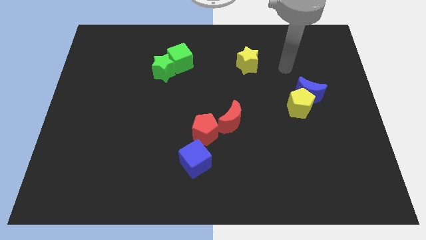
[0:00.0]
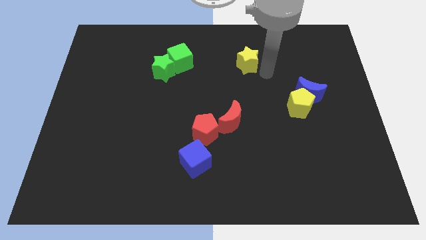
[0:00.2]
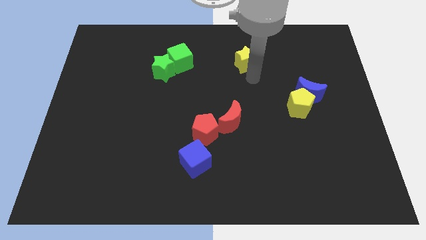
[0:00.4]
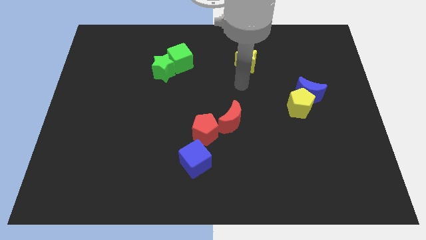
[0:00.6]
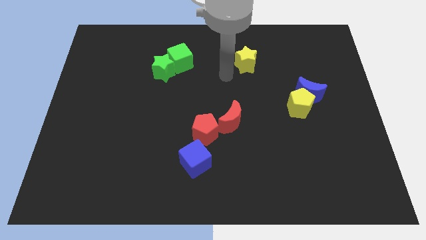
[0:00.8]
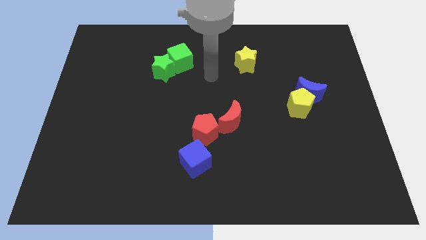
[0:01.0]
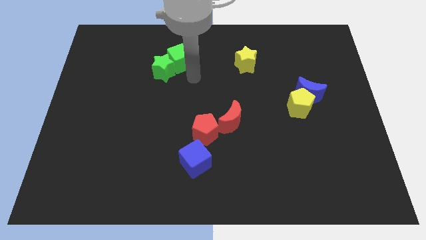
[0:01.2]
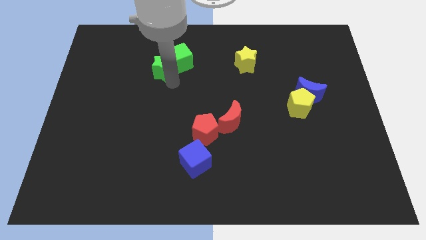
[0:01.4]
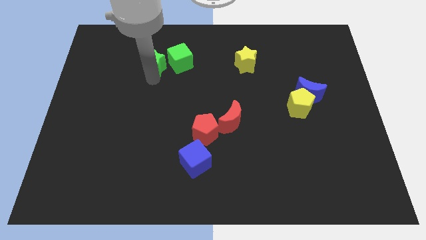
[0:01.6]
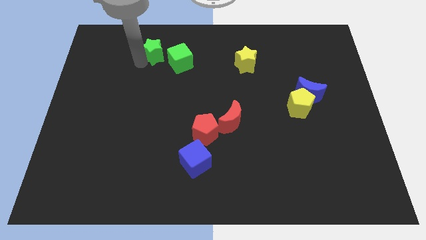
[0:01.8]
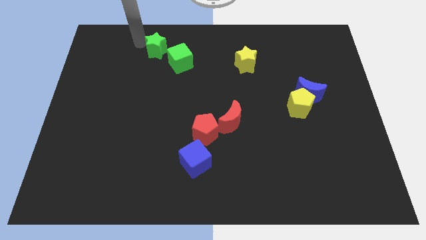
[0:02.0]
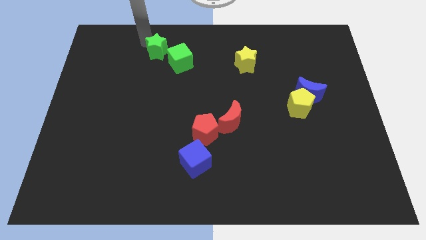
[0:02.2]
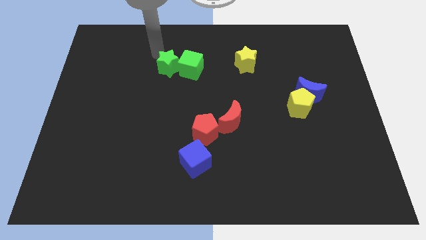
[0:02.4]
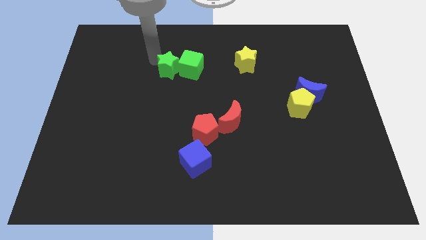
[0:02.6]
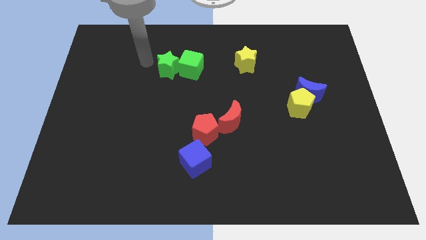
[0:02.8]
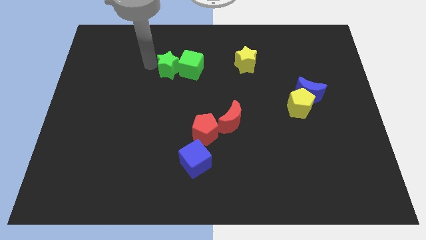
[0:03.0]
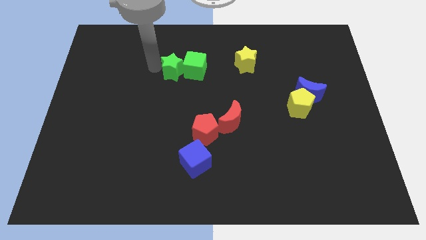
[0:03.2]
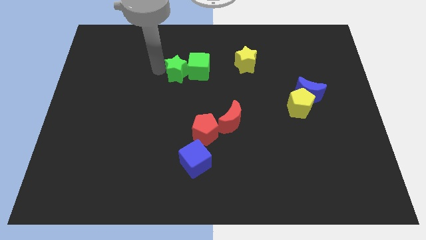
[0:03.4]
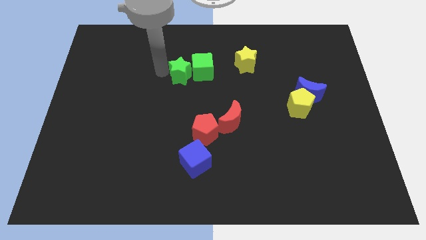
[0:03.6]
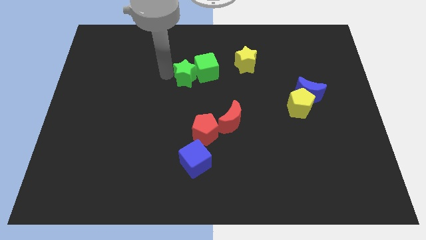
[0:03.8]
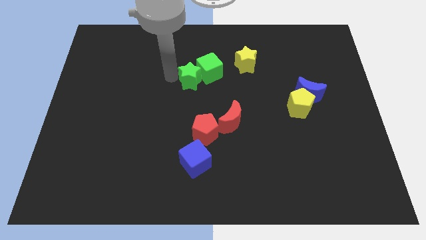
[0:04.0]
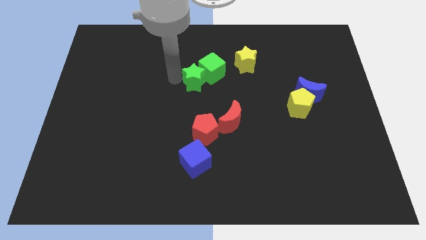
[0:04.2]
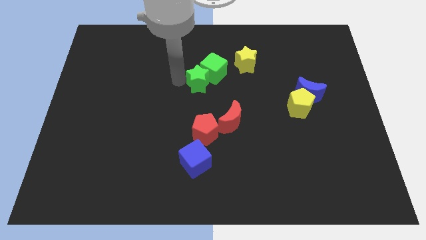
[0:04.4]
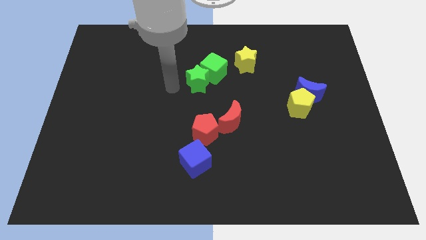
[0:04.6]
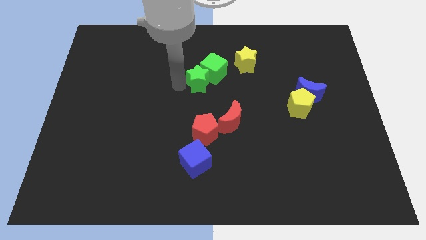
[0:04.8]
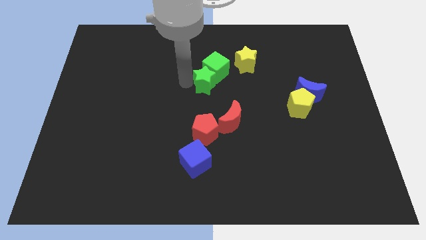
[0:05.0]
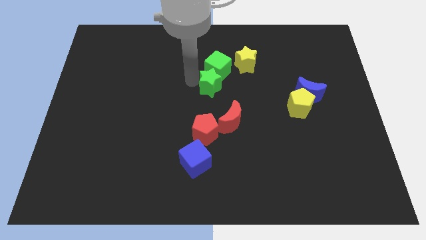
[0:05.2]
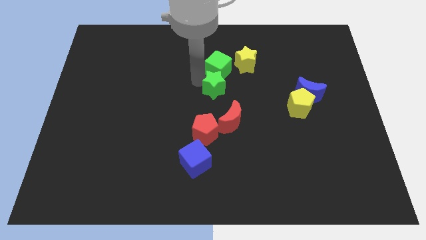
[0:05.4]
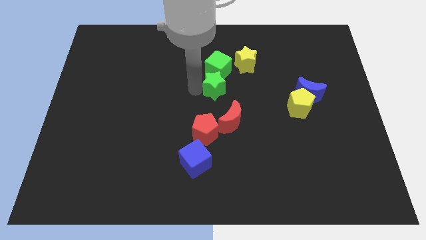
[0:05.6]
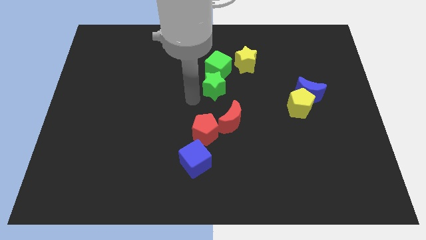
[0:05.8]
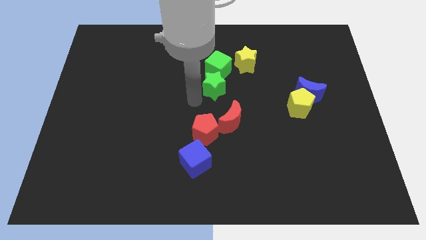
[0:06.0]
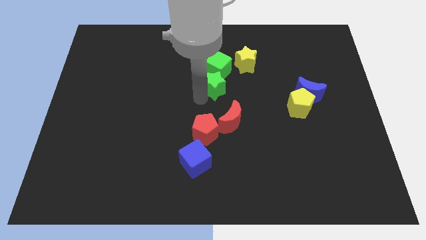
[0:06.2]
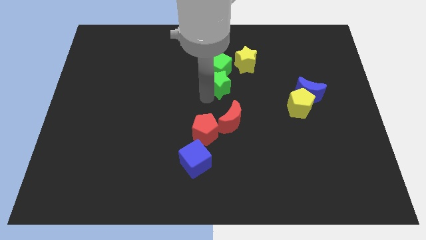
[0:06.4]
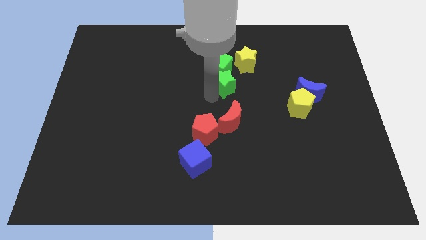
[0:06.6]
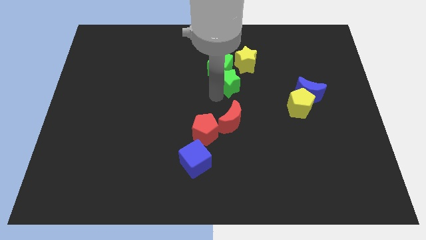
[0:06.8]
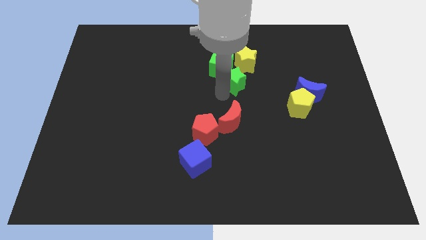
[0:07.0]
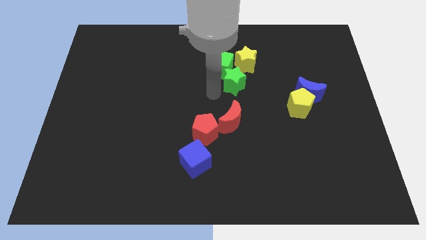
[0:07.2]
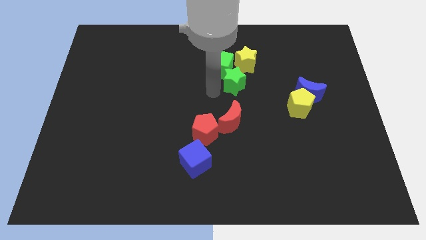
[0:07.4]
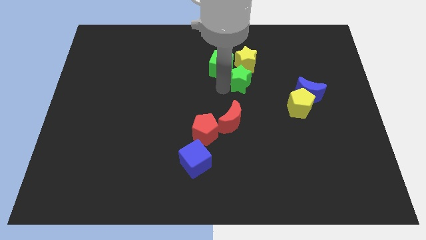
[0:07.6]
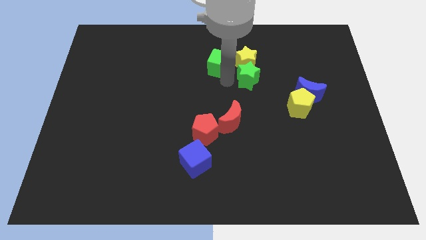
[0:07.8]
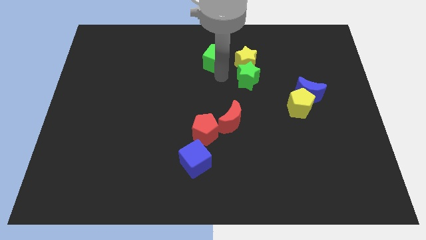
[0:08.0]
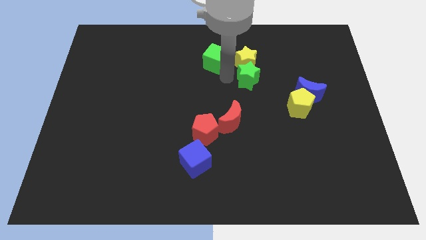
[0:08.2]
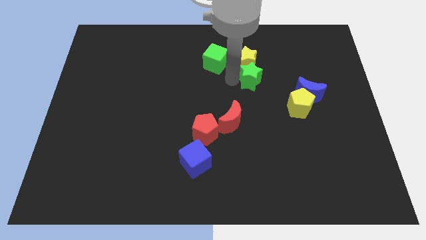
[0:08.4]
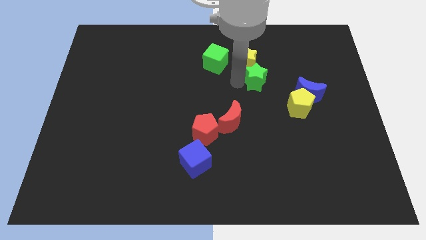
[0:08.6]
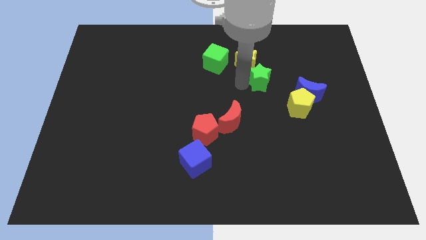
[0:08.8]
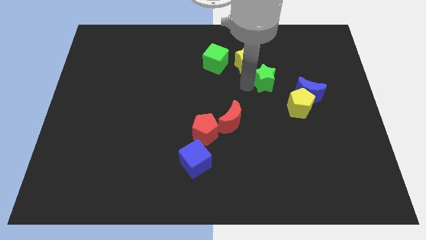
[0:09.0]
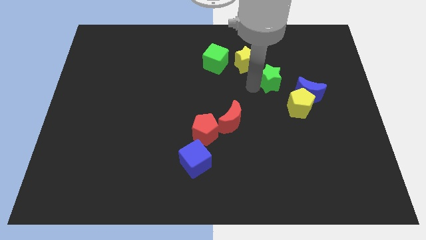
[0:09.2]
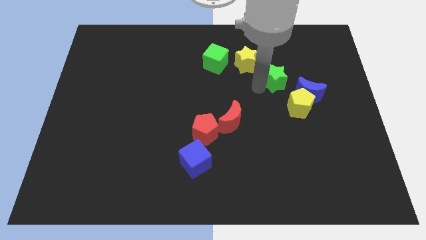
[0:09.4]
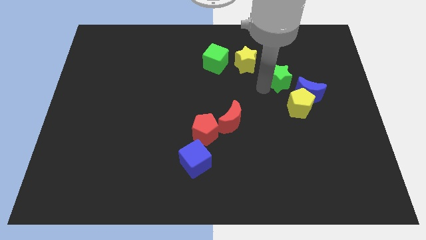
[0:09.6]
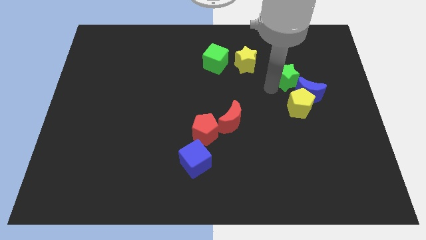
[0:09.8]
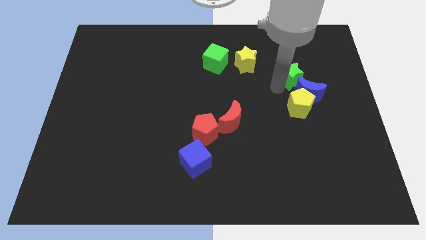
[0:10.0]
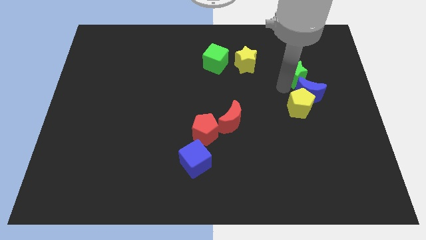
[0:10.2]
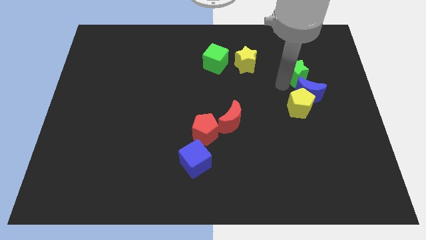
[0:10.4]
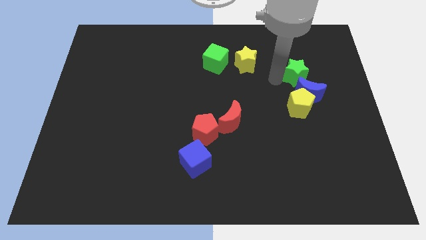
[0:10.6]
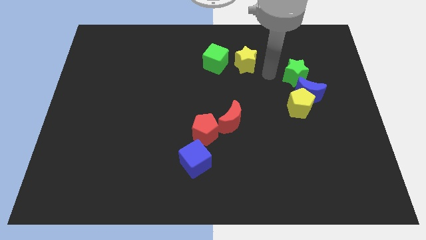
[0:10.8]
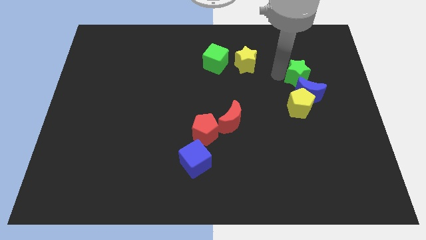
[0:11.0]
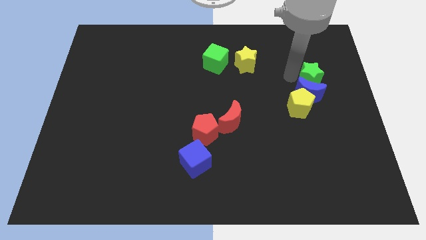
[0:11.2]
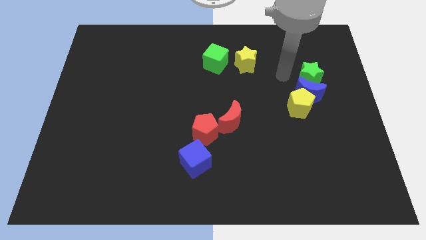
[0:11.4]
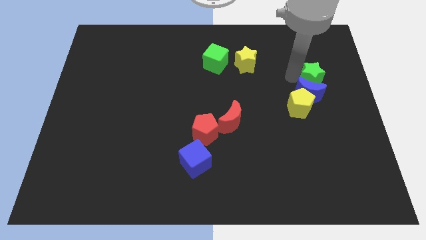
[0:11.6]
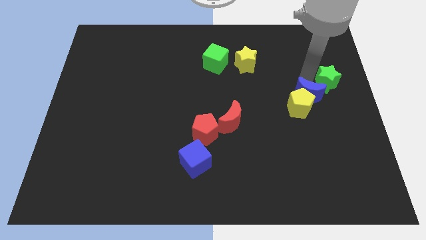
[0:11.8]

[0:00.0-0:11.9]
slide the green star to the right side

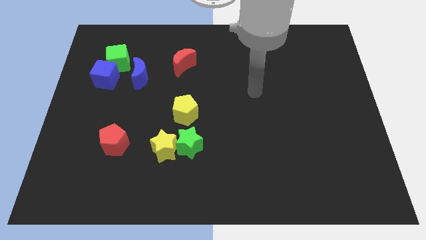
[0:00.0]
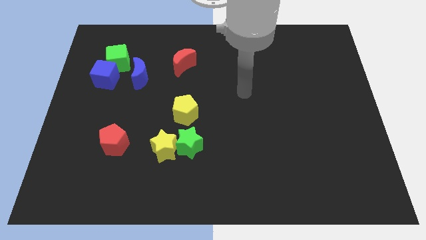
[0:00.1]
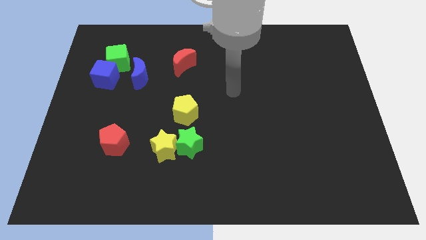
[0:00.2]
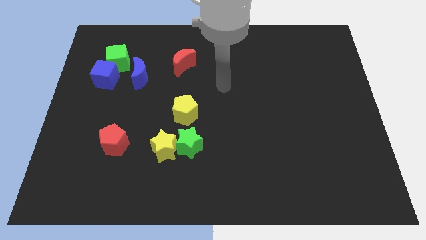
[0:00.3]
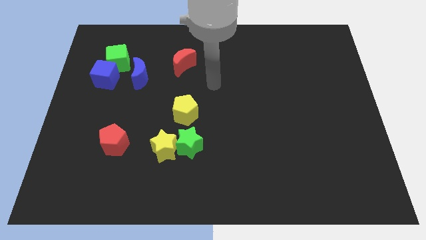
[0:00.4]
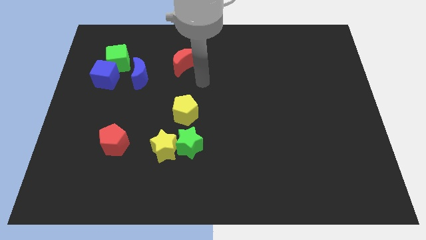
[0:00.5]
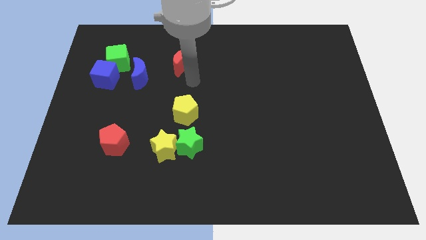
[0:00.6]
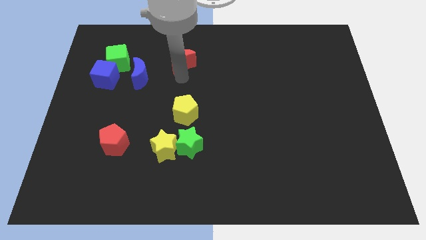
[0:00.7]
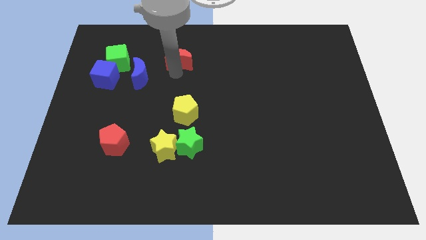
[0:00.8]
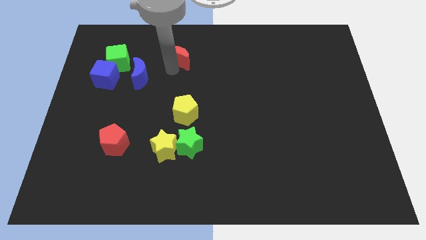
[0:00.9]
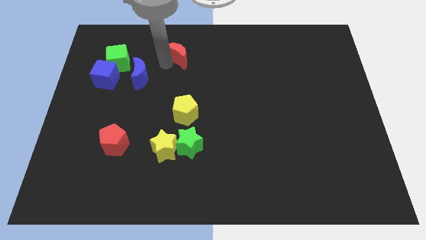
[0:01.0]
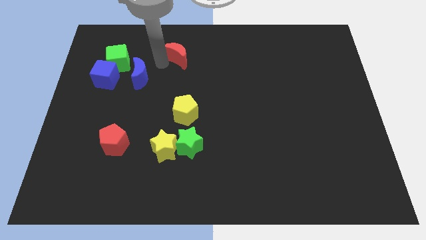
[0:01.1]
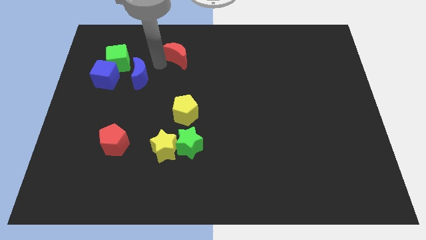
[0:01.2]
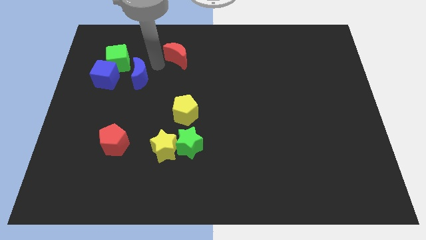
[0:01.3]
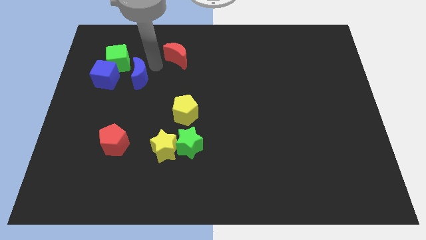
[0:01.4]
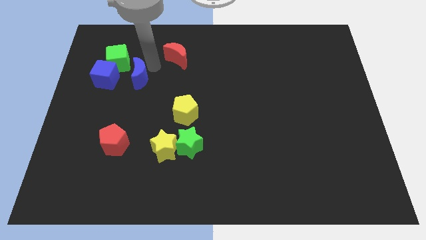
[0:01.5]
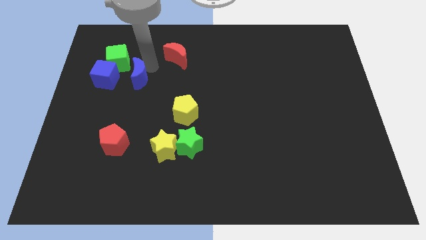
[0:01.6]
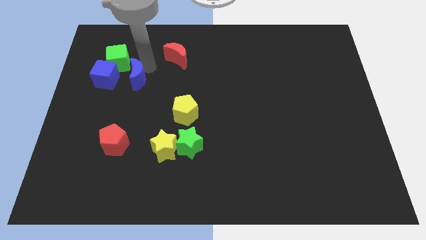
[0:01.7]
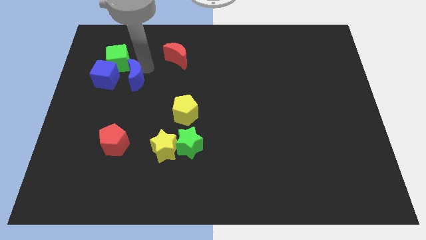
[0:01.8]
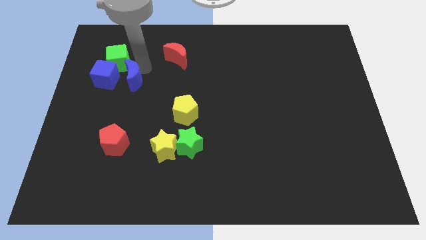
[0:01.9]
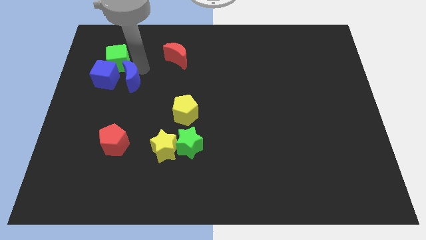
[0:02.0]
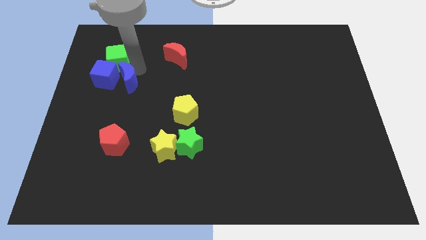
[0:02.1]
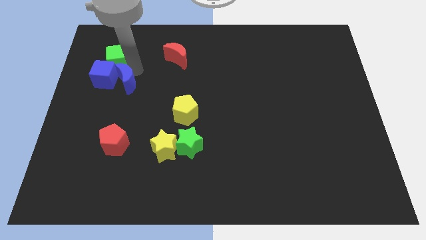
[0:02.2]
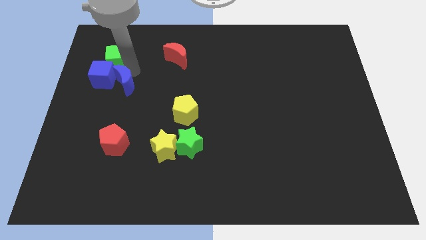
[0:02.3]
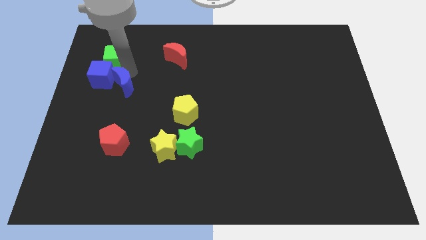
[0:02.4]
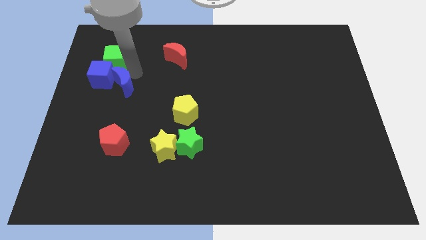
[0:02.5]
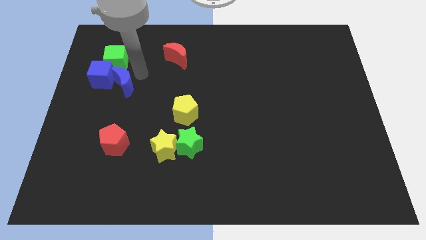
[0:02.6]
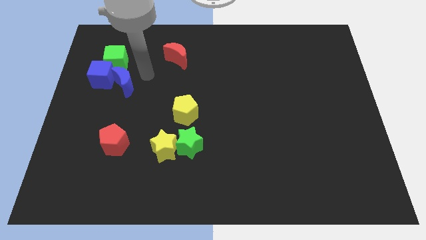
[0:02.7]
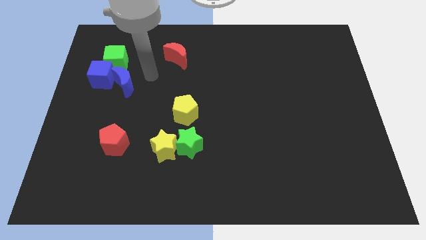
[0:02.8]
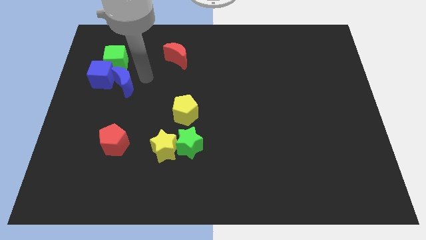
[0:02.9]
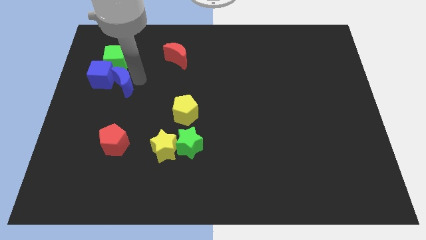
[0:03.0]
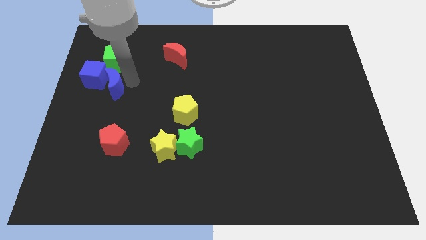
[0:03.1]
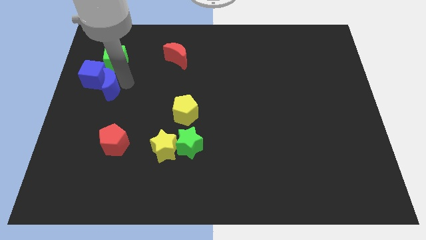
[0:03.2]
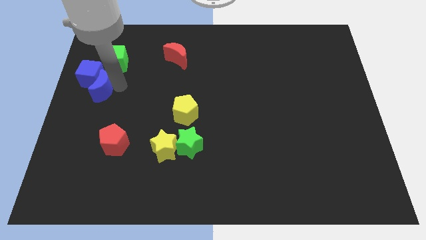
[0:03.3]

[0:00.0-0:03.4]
put the blue moon to the left side of the board
